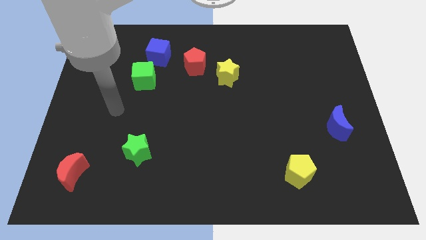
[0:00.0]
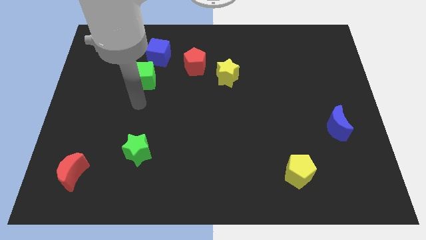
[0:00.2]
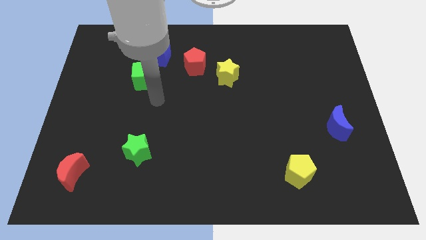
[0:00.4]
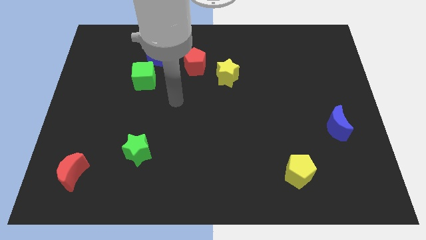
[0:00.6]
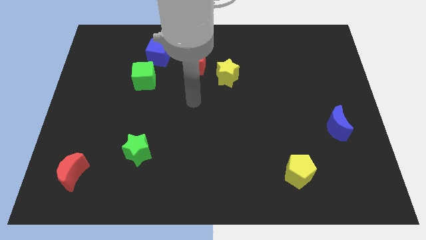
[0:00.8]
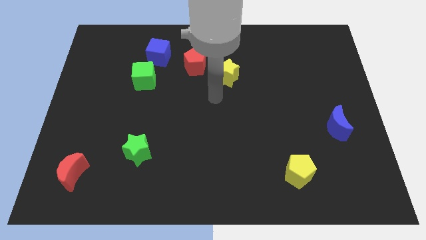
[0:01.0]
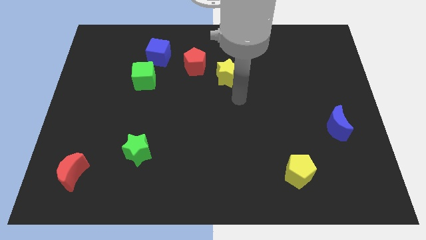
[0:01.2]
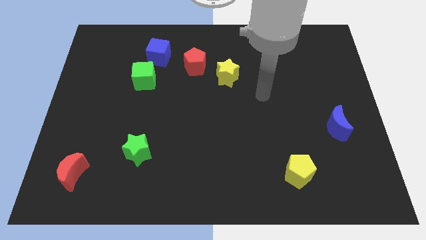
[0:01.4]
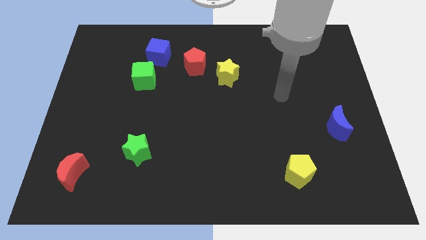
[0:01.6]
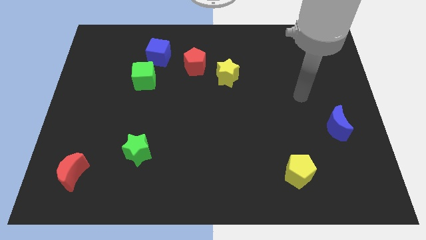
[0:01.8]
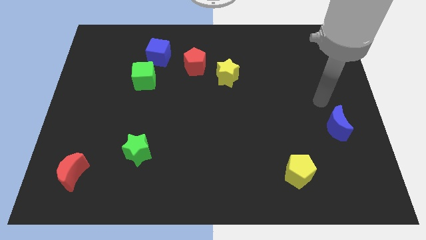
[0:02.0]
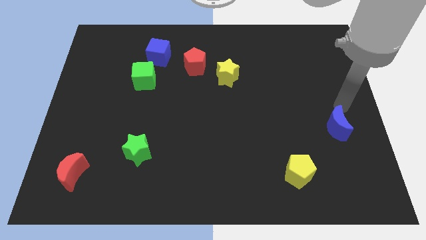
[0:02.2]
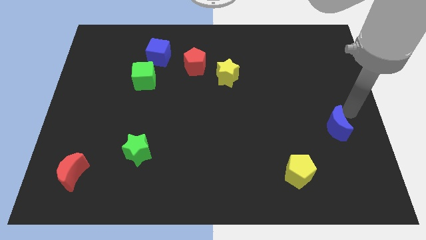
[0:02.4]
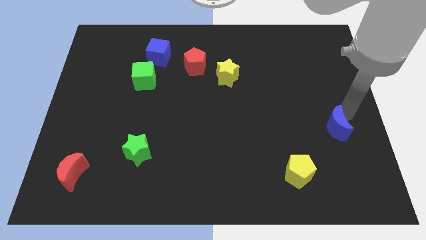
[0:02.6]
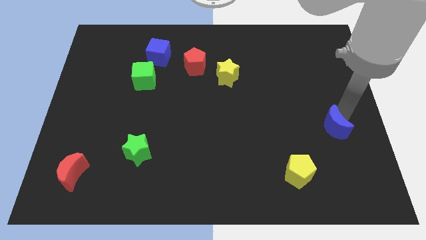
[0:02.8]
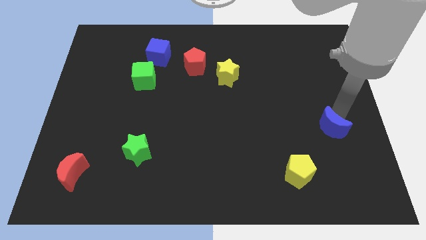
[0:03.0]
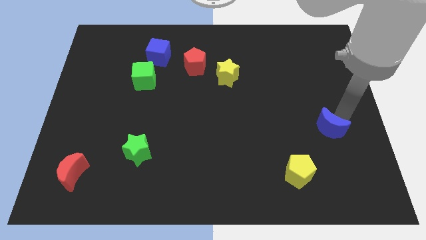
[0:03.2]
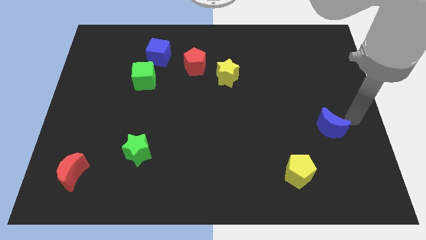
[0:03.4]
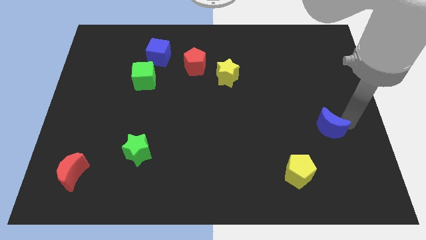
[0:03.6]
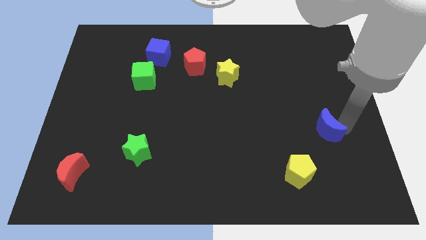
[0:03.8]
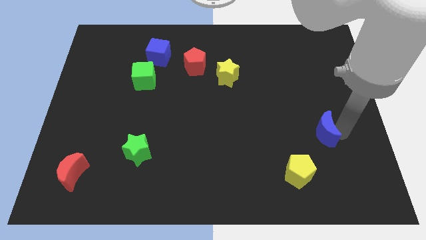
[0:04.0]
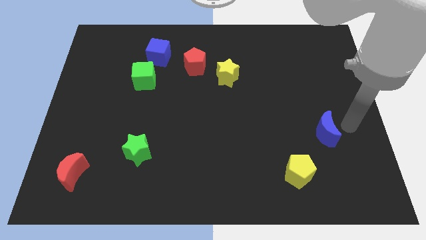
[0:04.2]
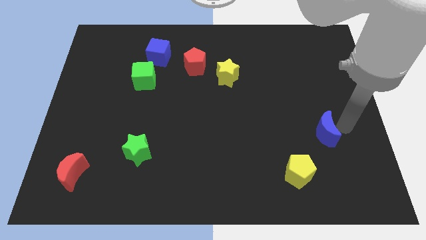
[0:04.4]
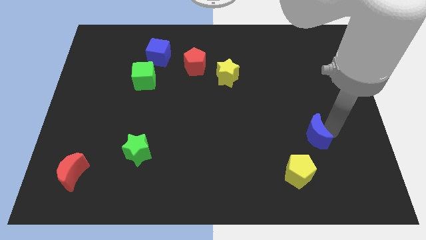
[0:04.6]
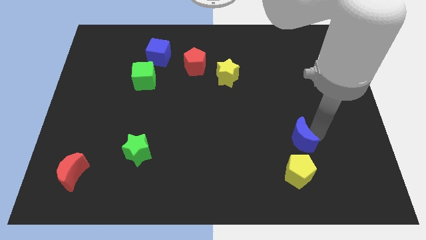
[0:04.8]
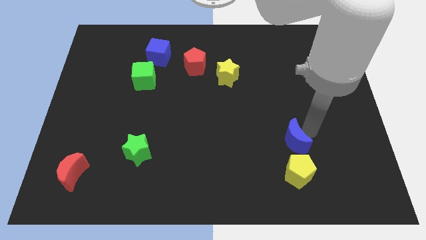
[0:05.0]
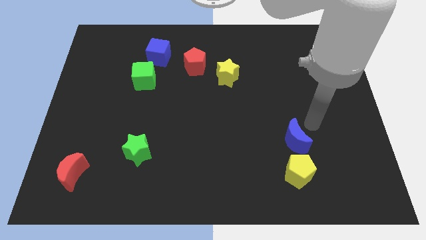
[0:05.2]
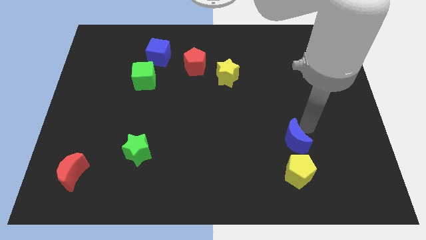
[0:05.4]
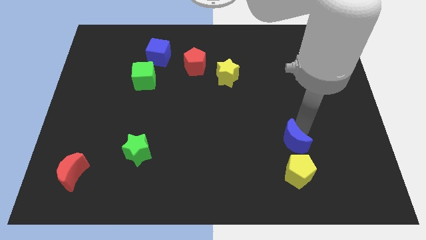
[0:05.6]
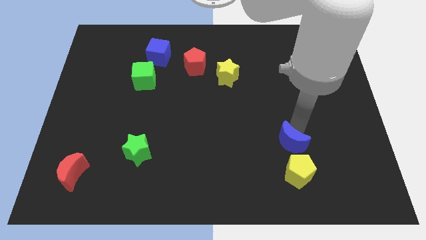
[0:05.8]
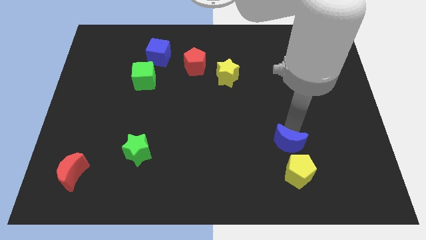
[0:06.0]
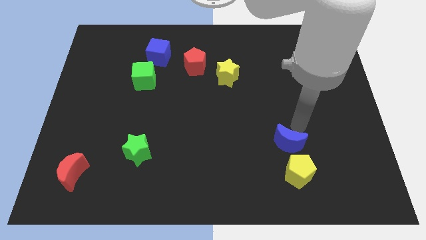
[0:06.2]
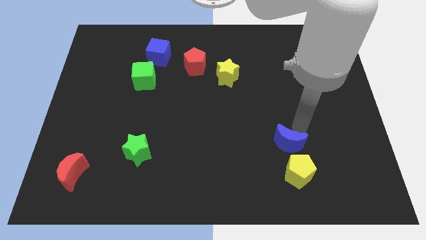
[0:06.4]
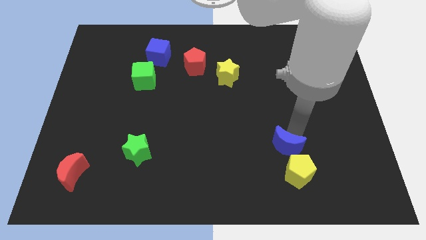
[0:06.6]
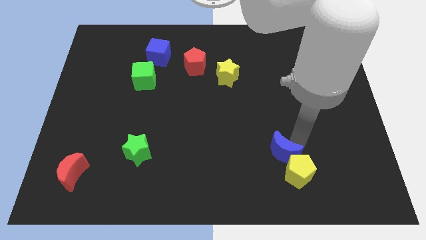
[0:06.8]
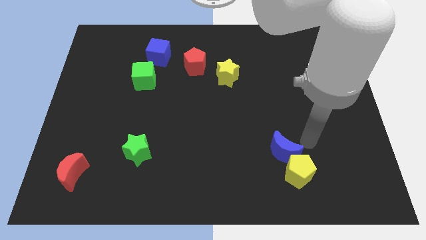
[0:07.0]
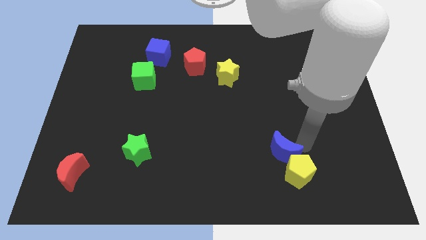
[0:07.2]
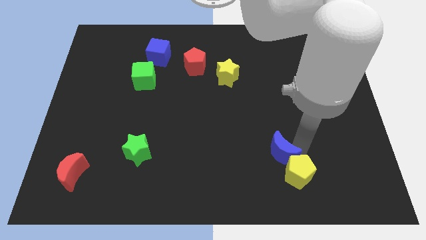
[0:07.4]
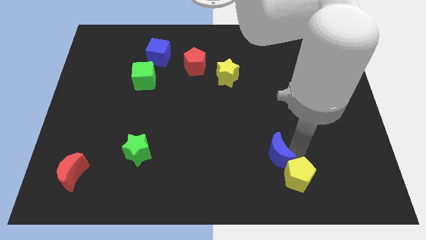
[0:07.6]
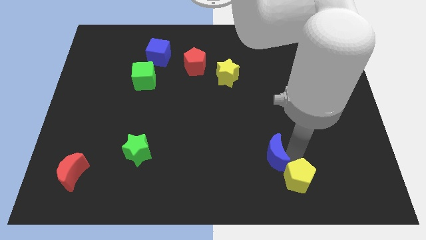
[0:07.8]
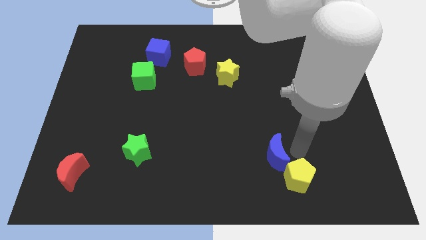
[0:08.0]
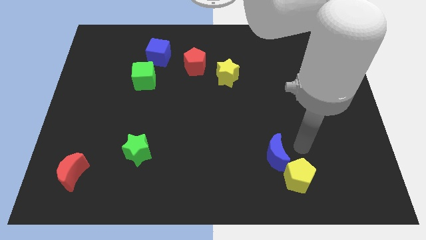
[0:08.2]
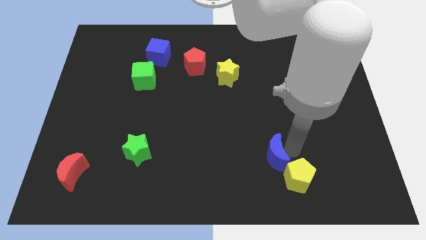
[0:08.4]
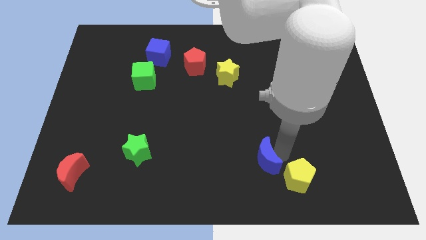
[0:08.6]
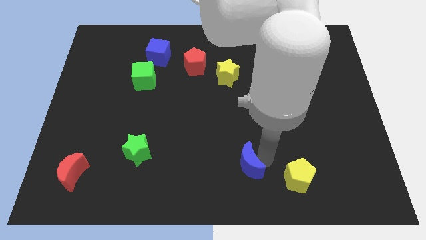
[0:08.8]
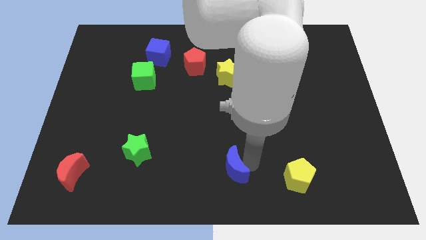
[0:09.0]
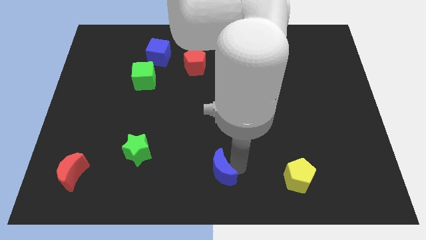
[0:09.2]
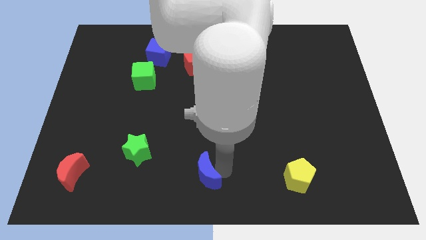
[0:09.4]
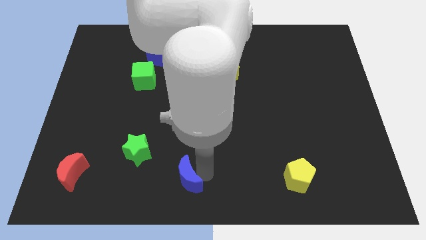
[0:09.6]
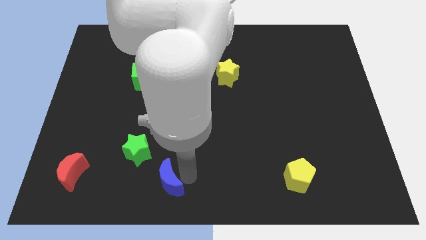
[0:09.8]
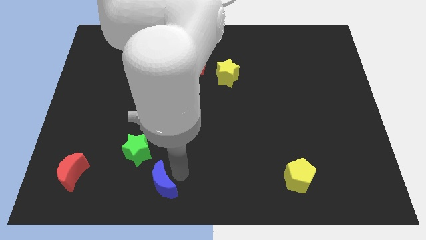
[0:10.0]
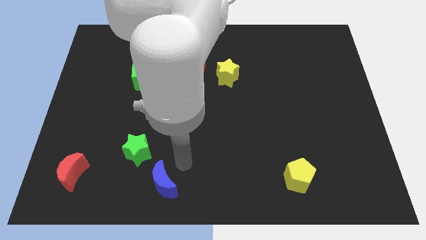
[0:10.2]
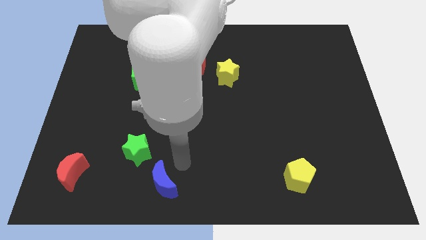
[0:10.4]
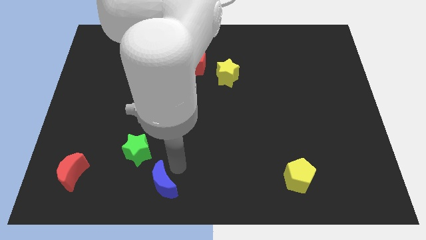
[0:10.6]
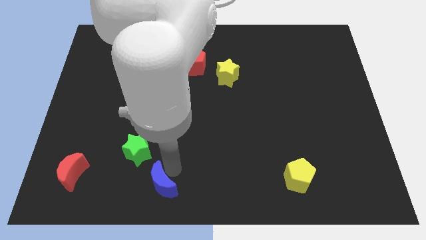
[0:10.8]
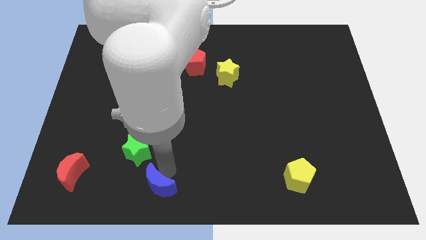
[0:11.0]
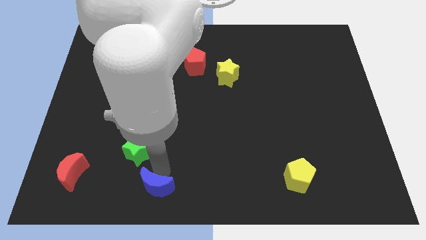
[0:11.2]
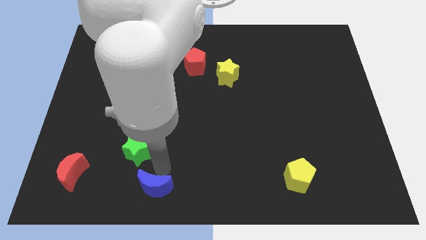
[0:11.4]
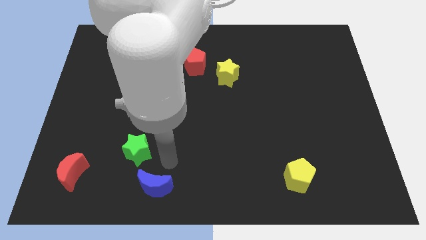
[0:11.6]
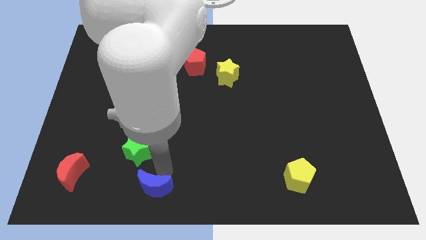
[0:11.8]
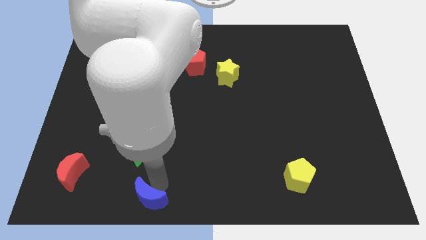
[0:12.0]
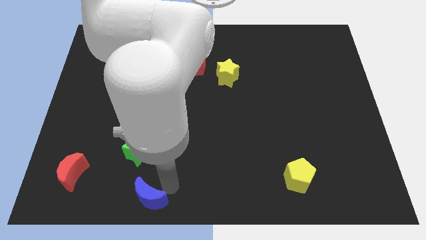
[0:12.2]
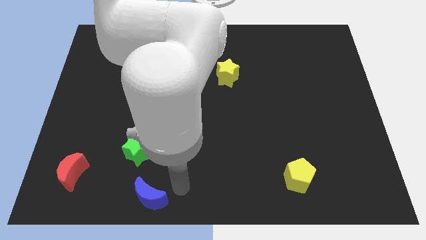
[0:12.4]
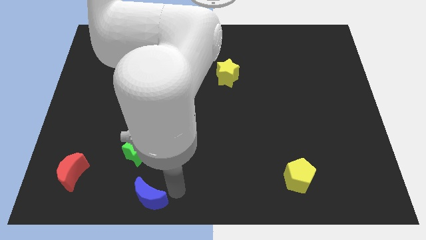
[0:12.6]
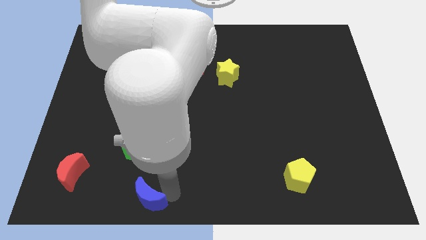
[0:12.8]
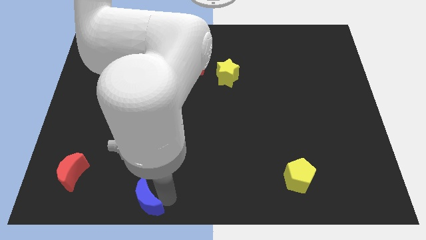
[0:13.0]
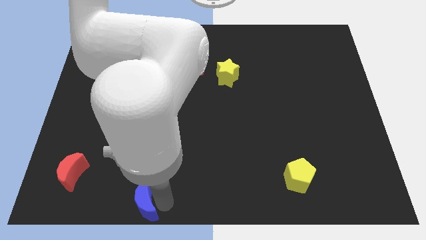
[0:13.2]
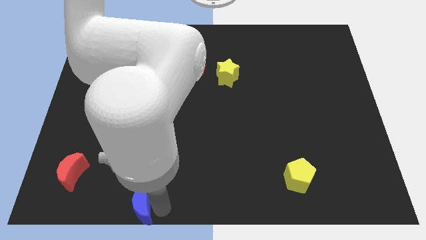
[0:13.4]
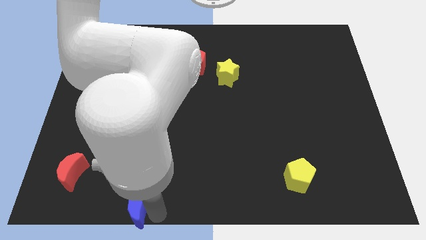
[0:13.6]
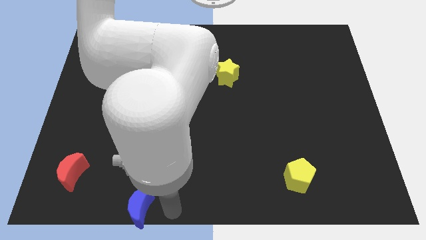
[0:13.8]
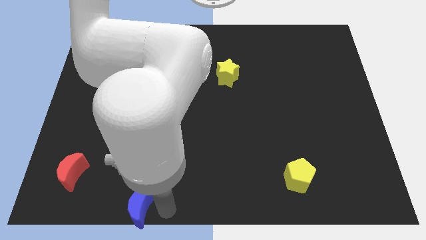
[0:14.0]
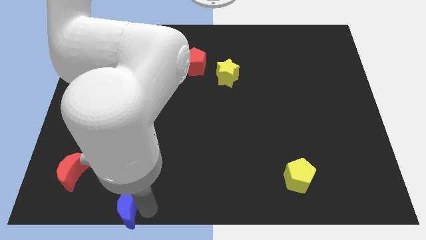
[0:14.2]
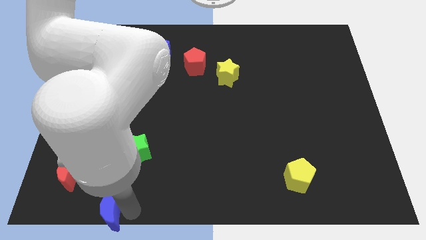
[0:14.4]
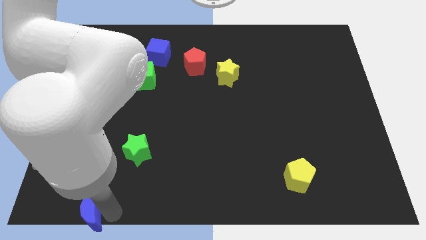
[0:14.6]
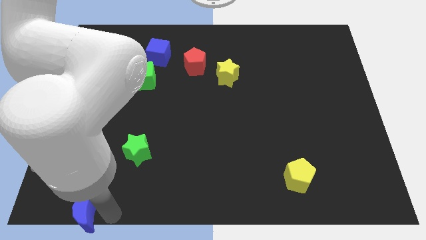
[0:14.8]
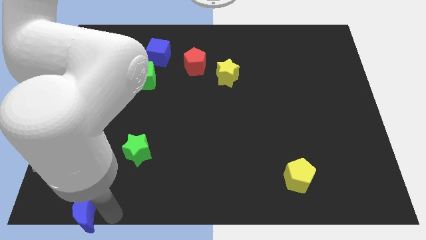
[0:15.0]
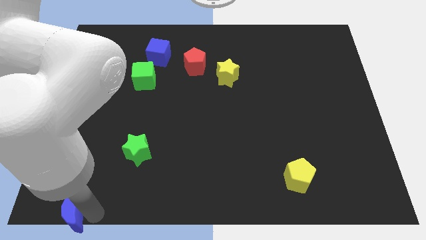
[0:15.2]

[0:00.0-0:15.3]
slide the blue moon to the bottom left of the board
